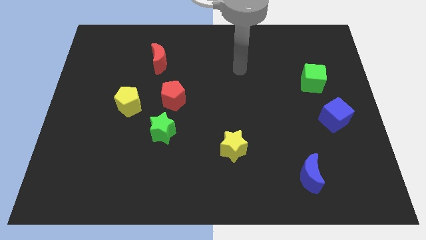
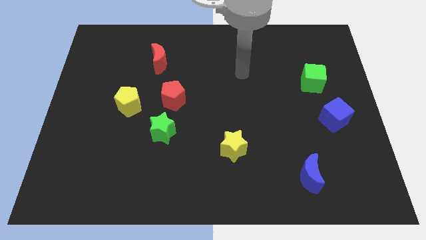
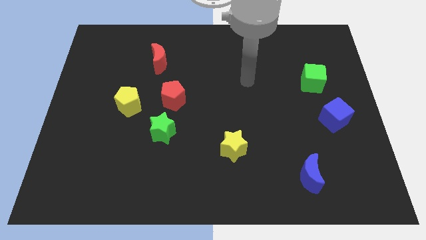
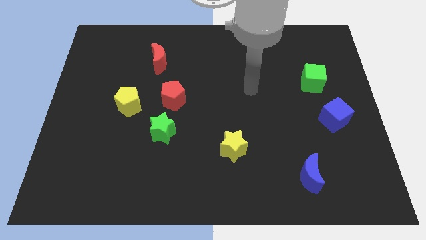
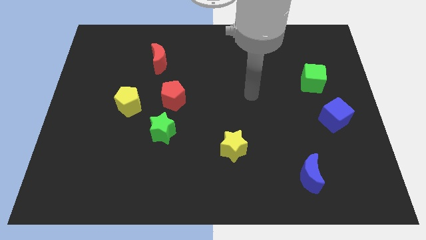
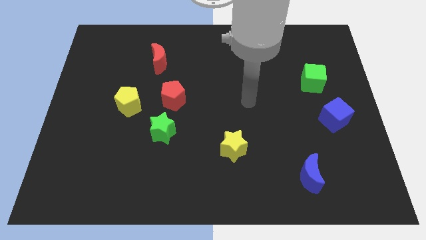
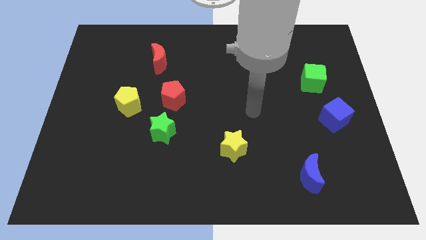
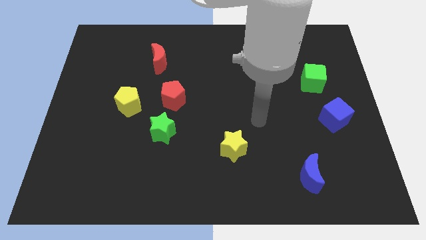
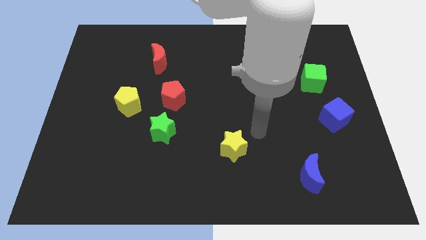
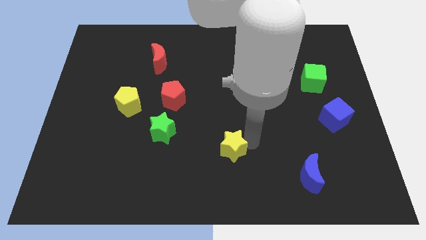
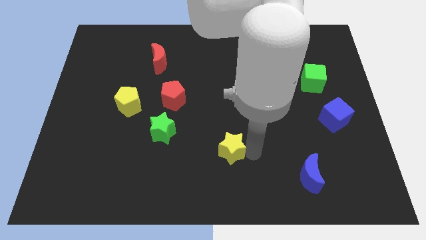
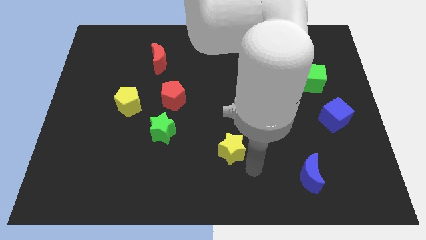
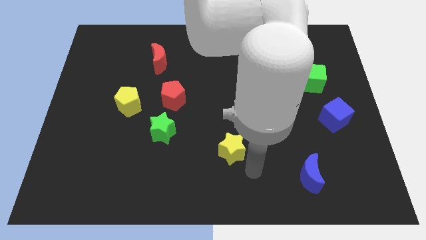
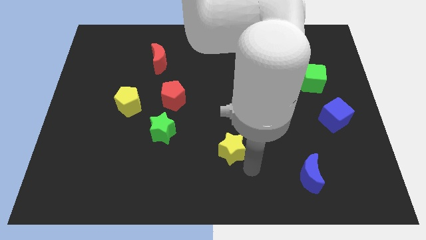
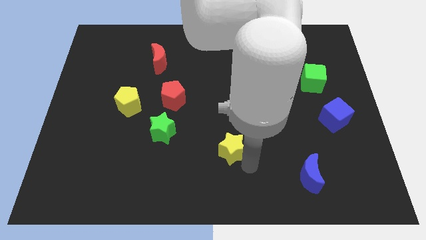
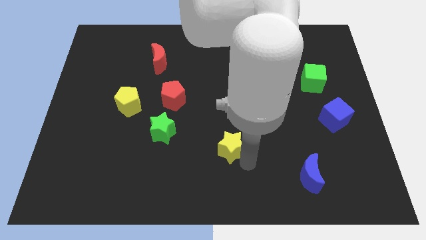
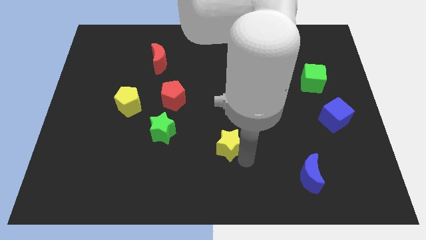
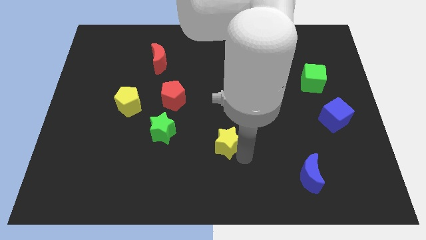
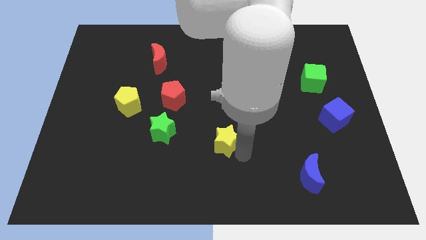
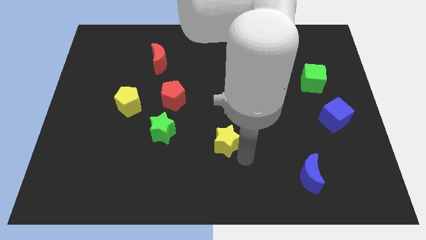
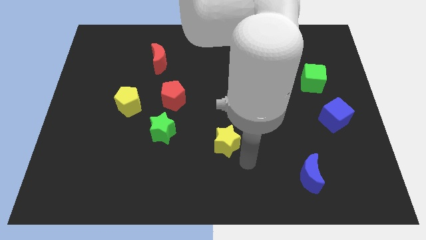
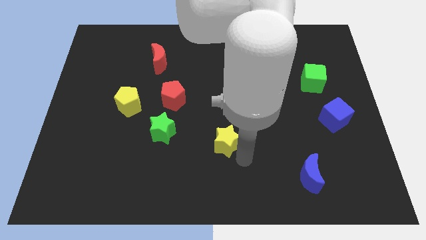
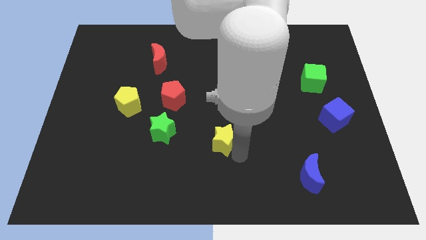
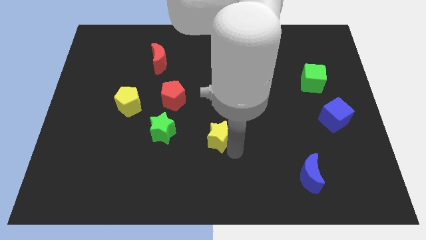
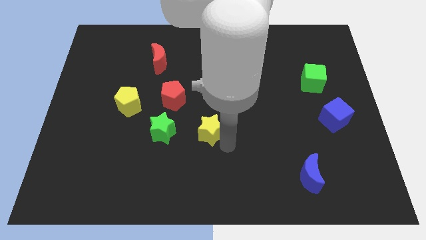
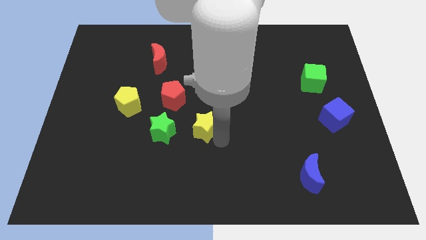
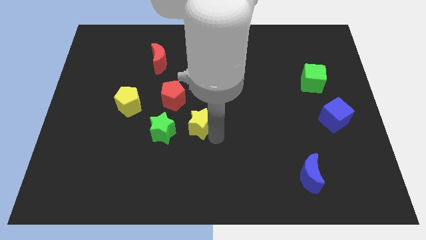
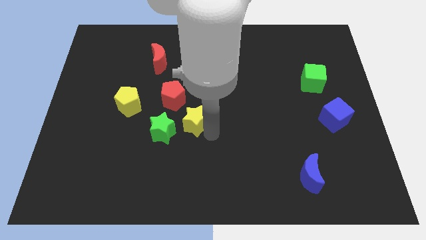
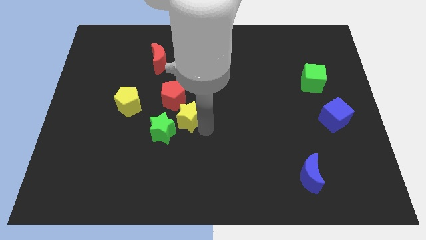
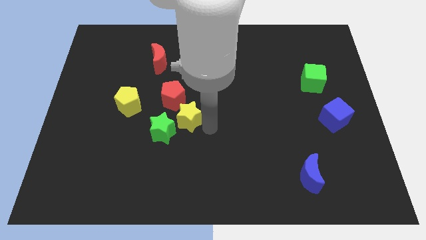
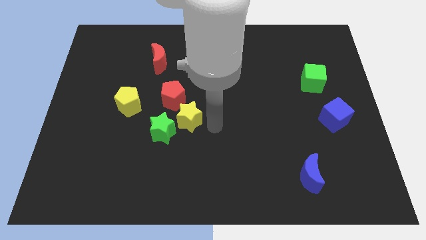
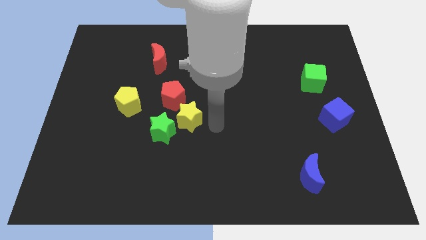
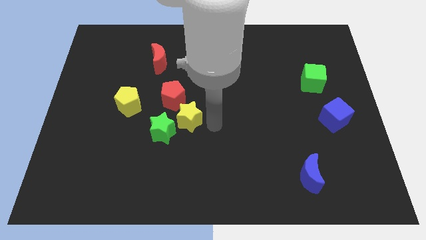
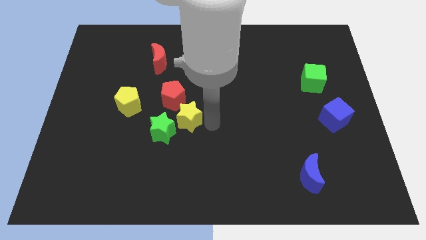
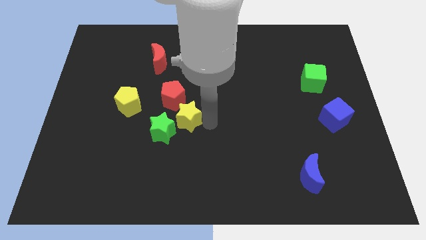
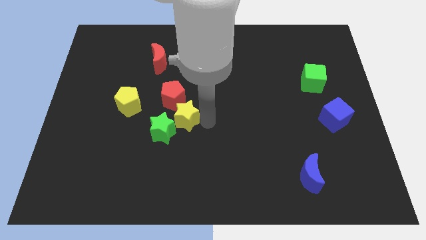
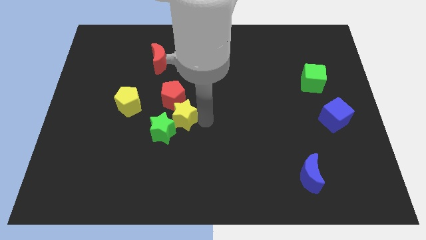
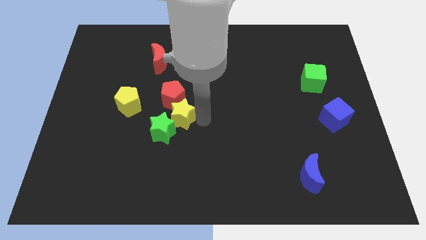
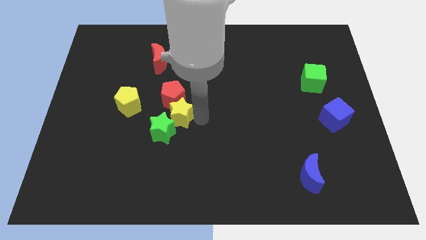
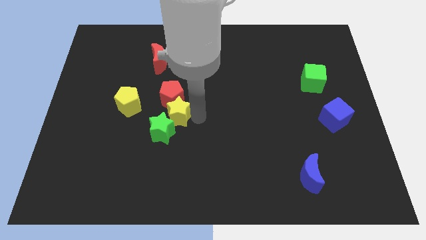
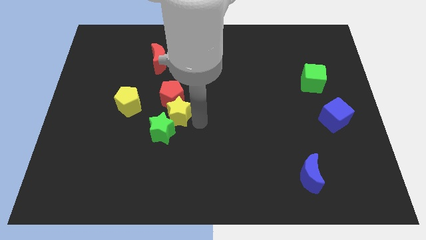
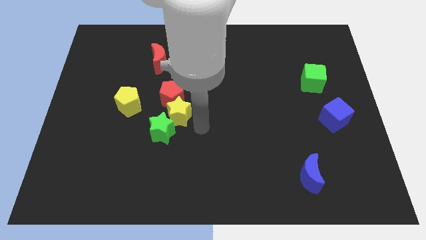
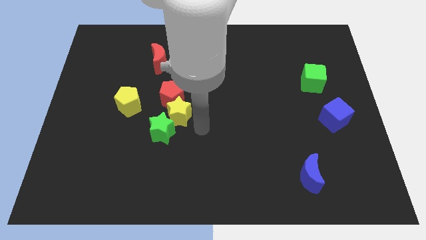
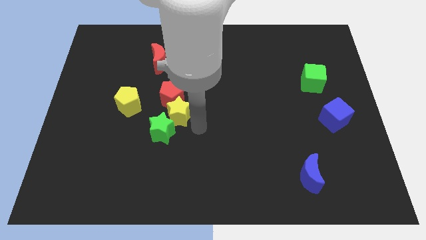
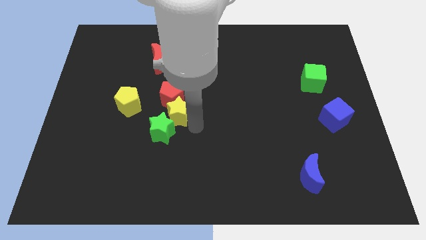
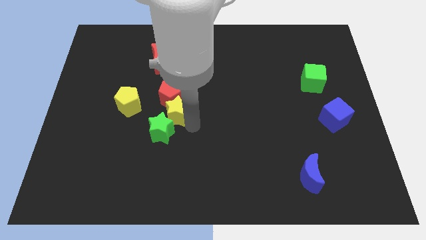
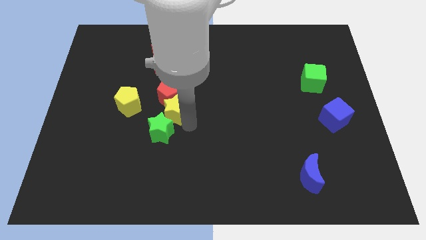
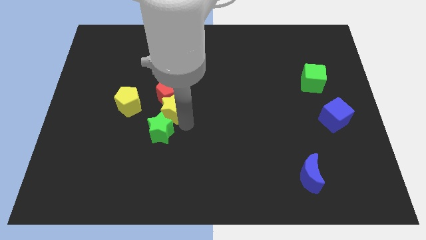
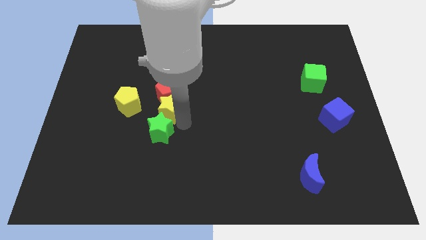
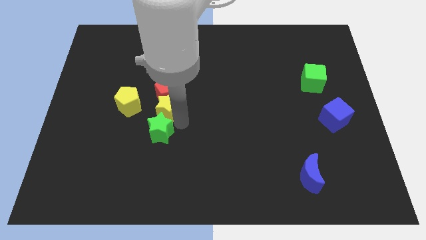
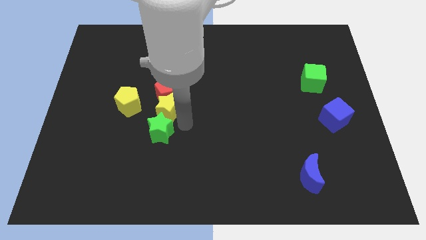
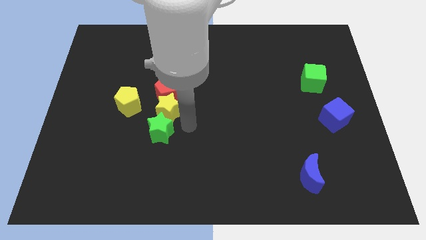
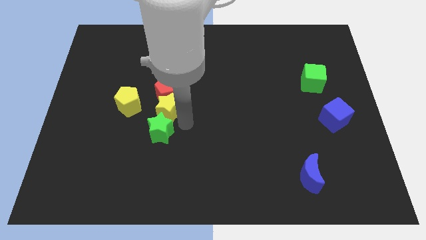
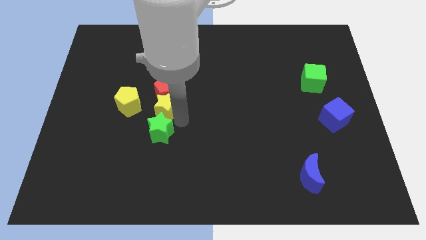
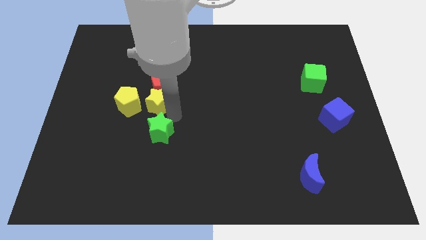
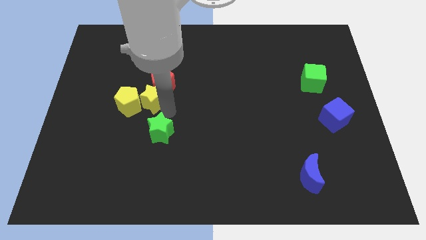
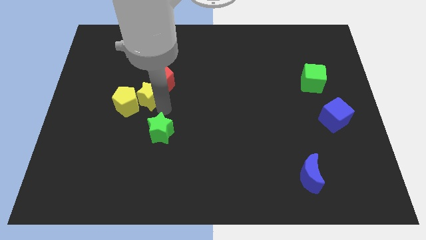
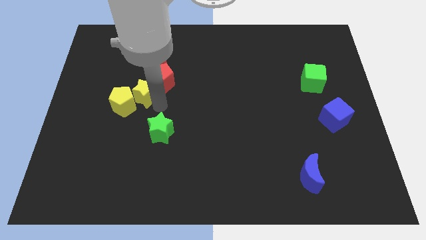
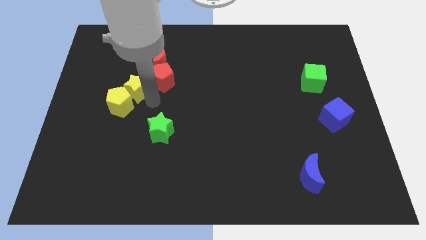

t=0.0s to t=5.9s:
push the yellow star above the yellow pentagon
